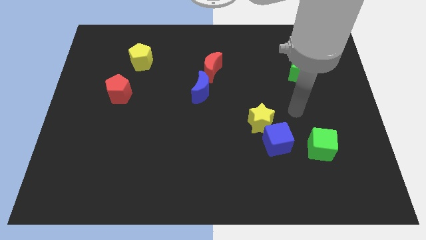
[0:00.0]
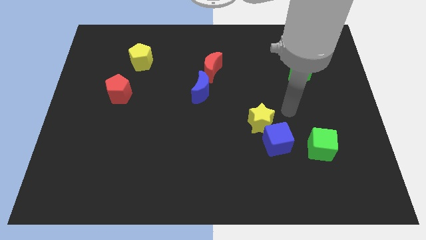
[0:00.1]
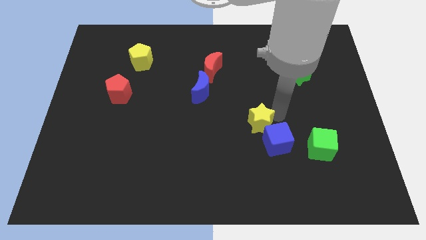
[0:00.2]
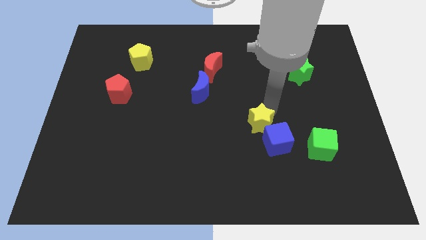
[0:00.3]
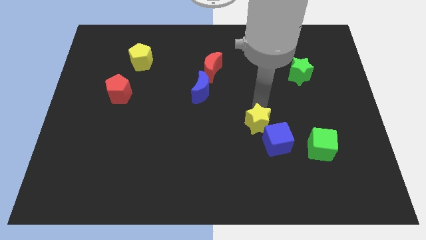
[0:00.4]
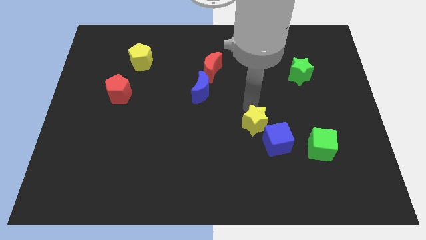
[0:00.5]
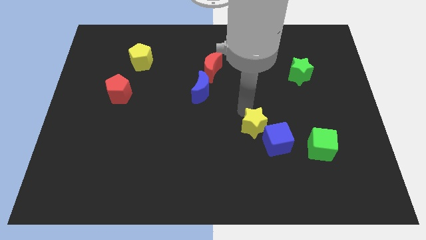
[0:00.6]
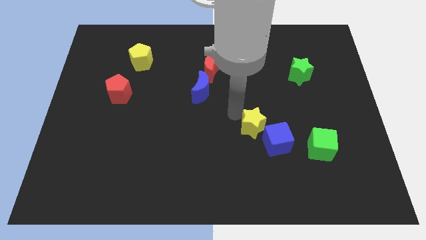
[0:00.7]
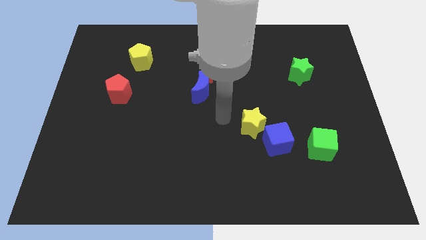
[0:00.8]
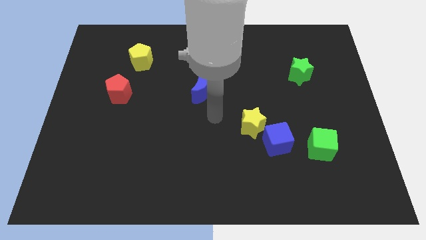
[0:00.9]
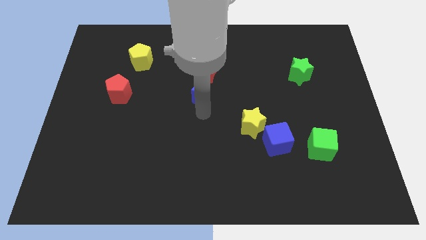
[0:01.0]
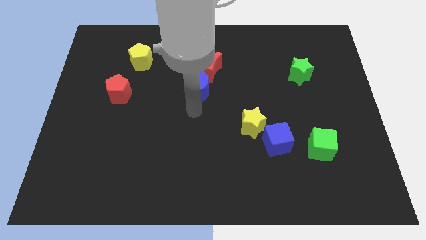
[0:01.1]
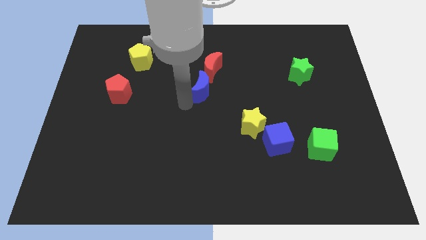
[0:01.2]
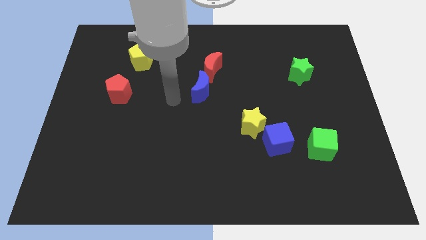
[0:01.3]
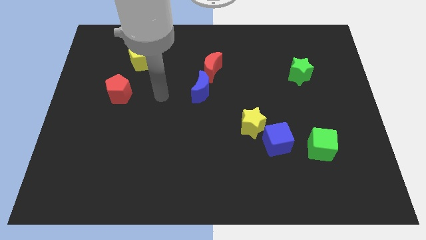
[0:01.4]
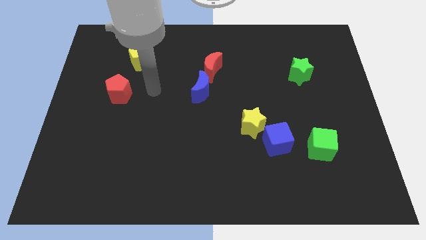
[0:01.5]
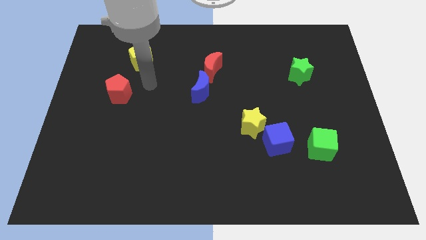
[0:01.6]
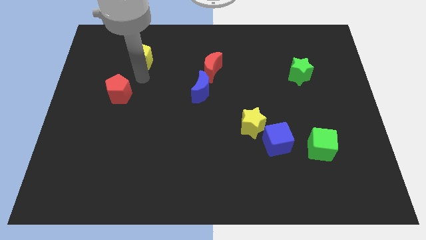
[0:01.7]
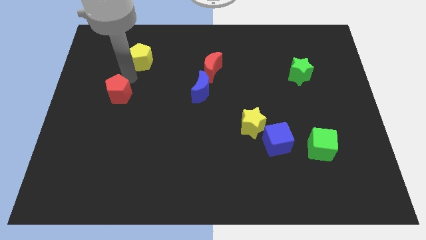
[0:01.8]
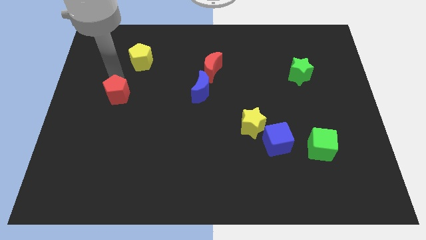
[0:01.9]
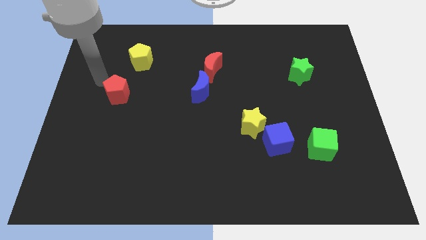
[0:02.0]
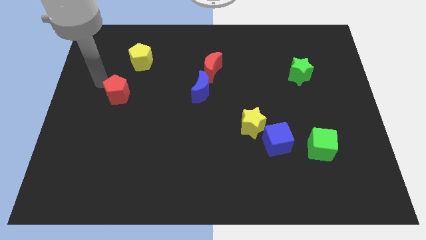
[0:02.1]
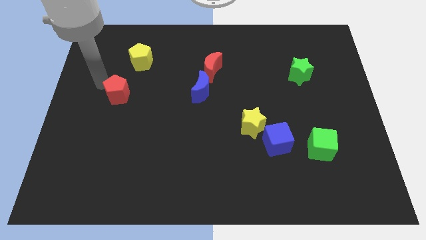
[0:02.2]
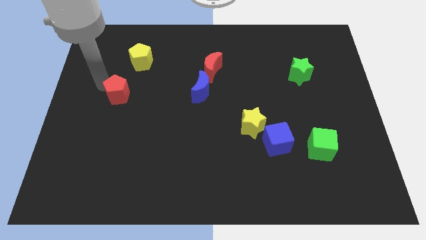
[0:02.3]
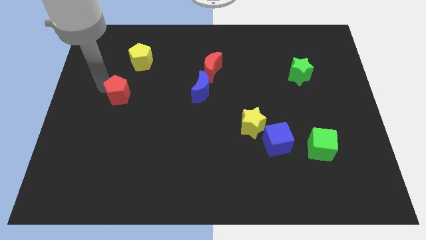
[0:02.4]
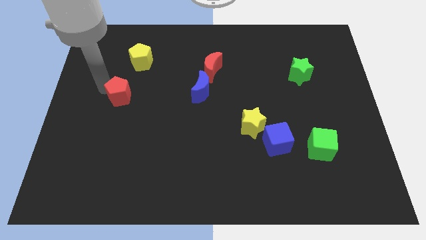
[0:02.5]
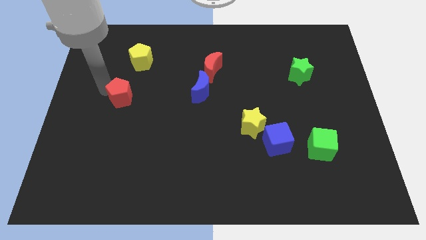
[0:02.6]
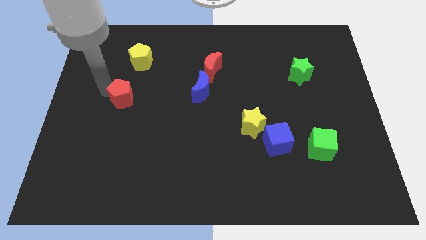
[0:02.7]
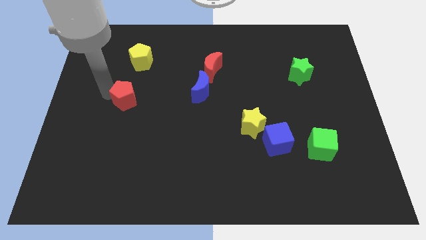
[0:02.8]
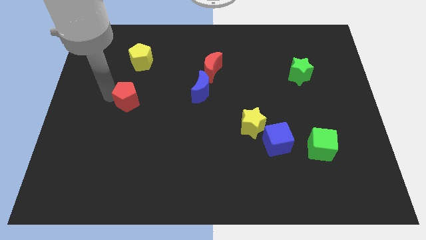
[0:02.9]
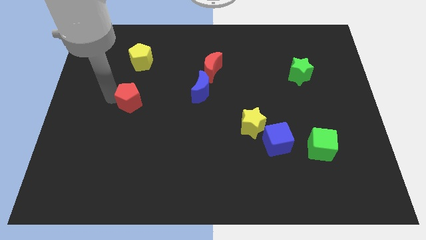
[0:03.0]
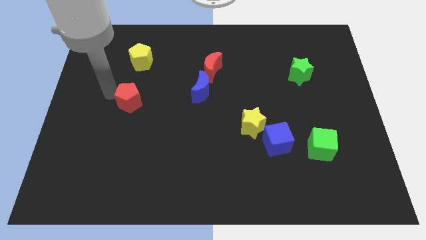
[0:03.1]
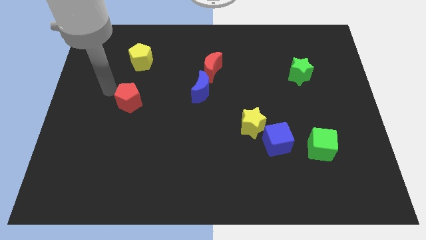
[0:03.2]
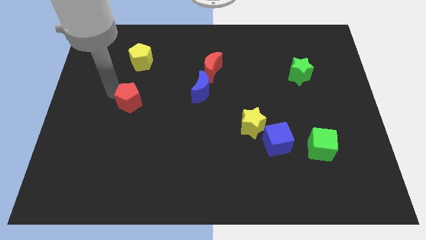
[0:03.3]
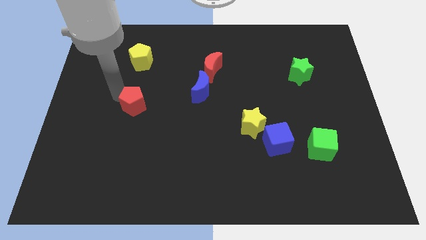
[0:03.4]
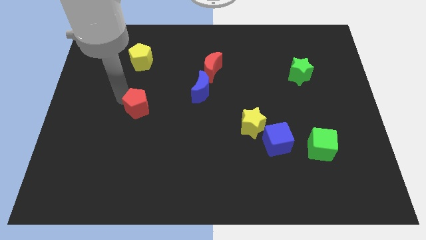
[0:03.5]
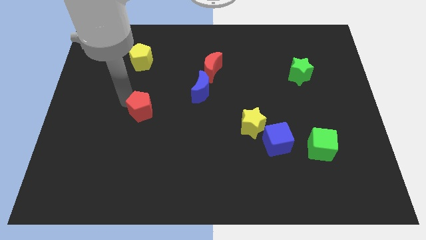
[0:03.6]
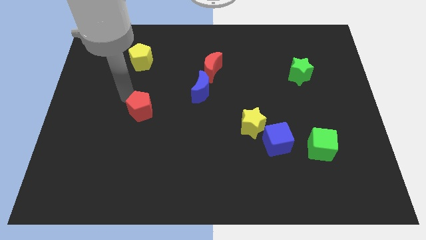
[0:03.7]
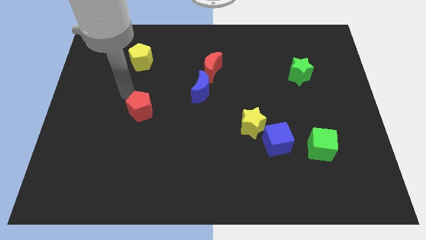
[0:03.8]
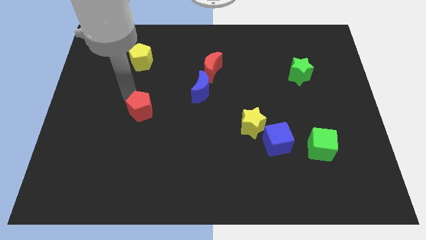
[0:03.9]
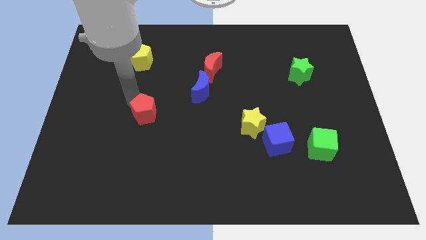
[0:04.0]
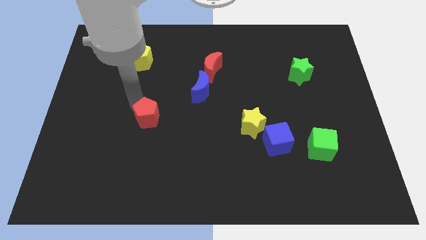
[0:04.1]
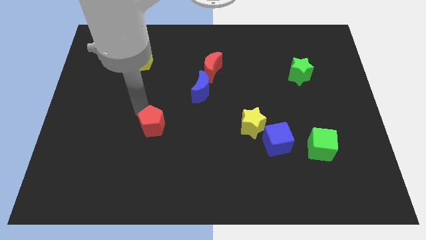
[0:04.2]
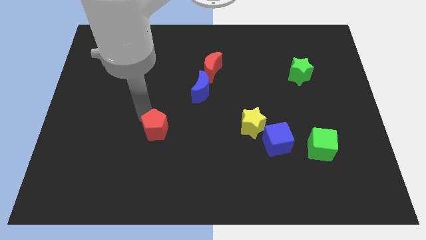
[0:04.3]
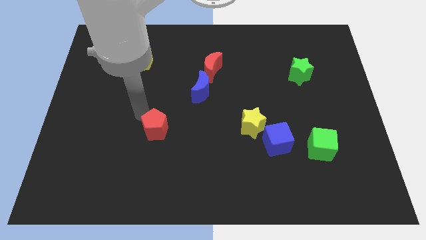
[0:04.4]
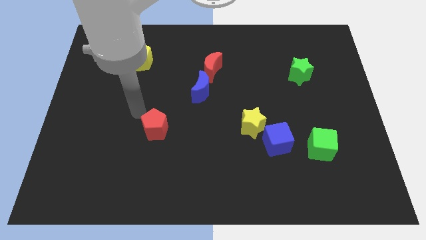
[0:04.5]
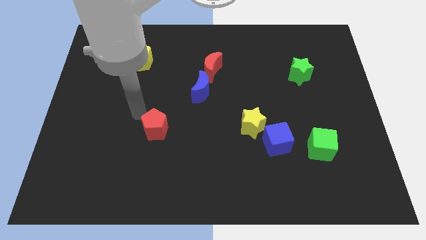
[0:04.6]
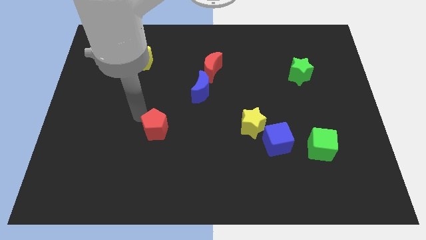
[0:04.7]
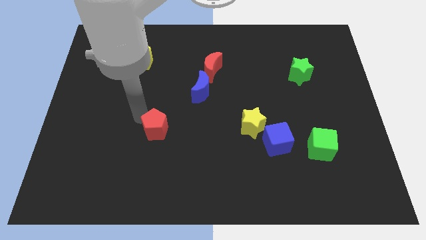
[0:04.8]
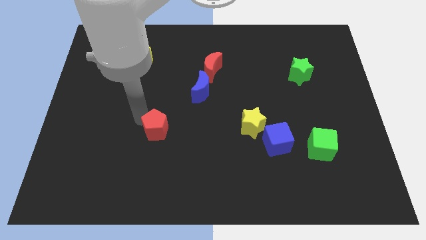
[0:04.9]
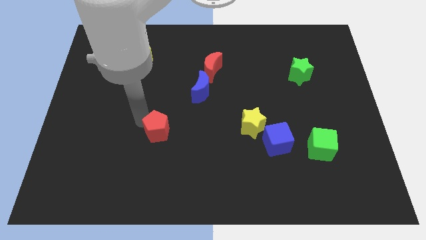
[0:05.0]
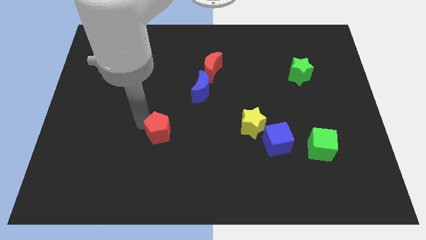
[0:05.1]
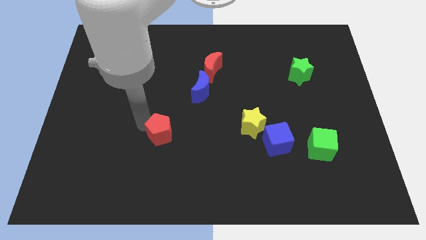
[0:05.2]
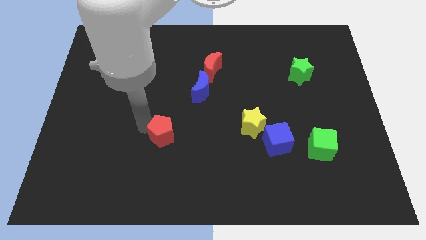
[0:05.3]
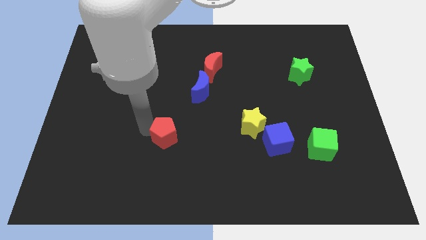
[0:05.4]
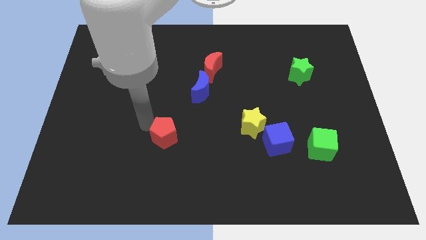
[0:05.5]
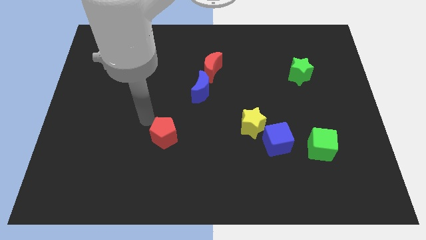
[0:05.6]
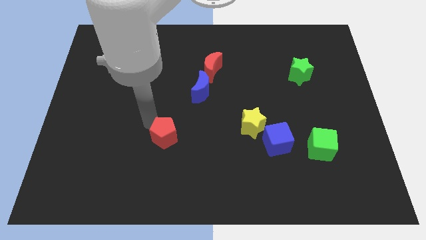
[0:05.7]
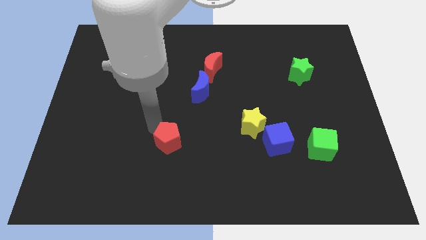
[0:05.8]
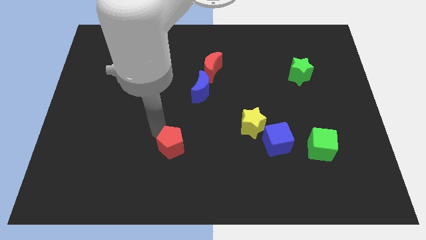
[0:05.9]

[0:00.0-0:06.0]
push the red pentagon diagonally down and to the right

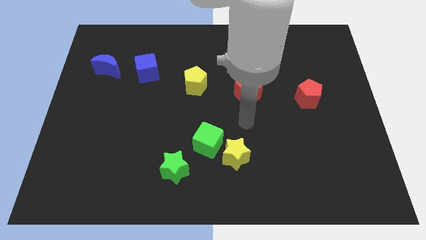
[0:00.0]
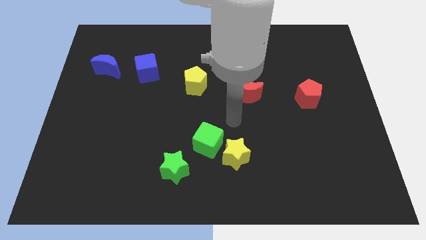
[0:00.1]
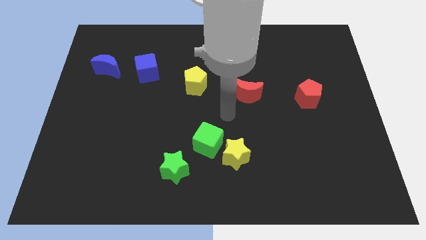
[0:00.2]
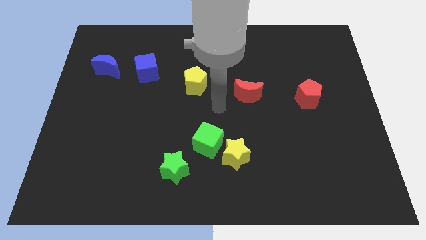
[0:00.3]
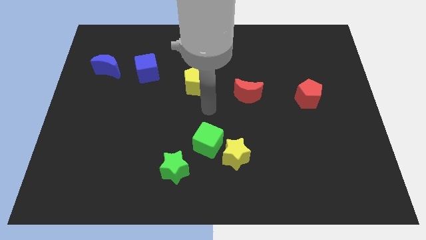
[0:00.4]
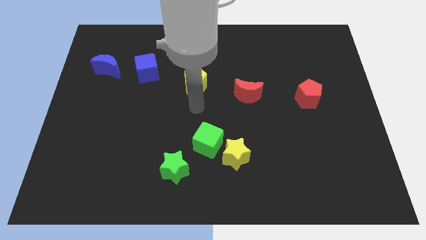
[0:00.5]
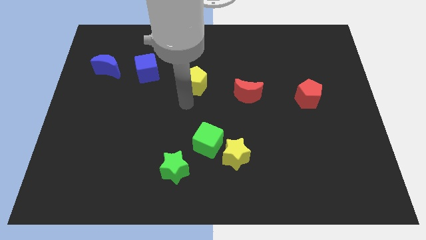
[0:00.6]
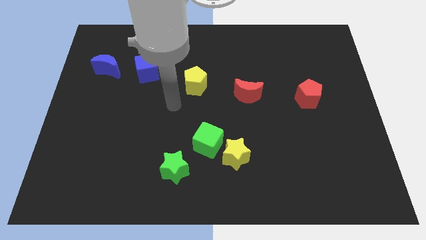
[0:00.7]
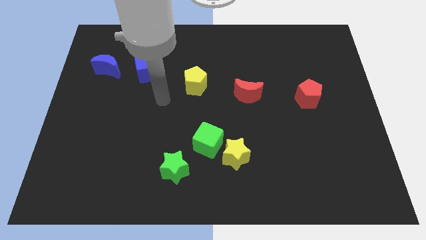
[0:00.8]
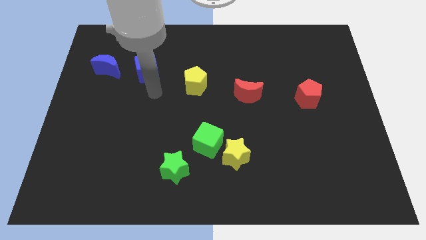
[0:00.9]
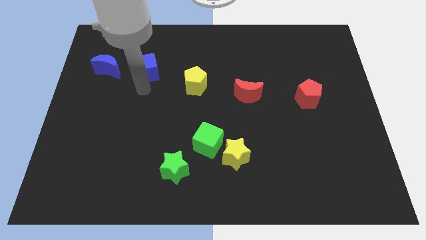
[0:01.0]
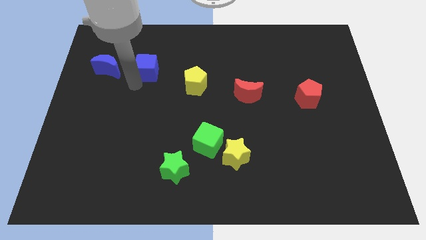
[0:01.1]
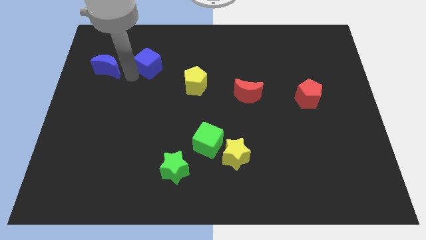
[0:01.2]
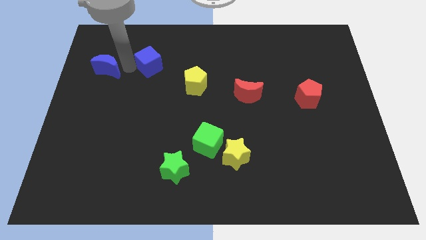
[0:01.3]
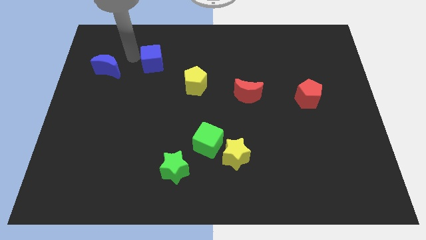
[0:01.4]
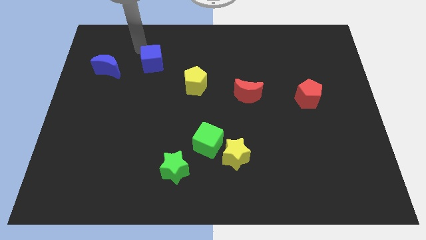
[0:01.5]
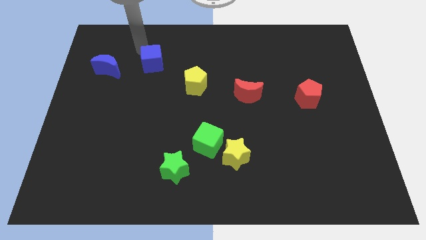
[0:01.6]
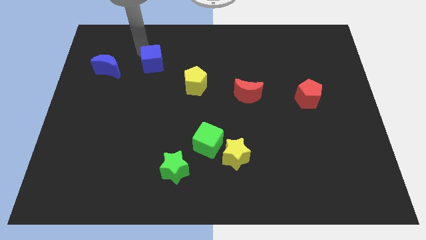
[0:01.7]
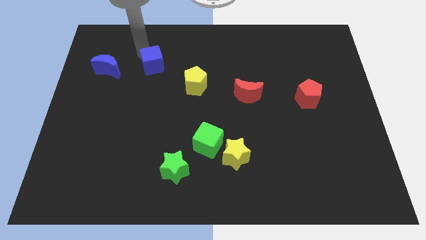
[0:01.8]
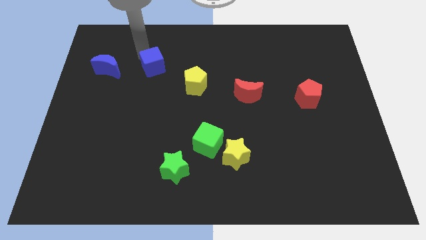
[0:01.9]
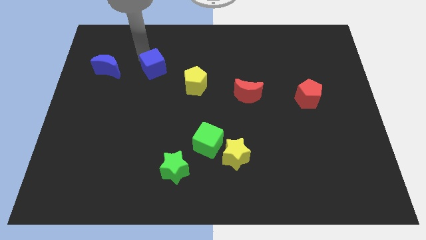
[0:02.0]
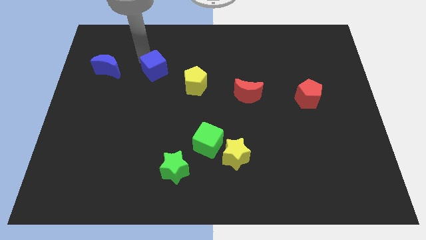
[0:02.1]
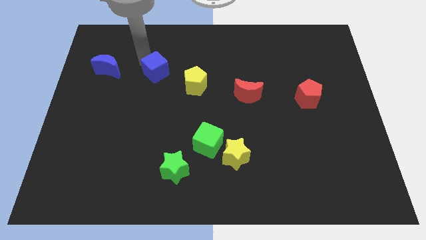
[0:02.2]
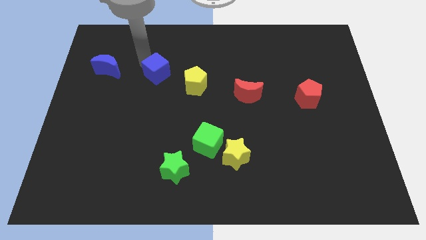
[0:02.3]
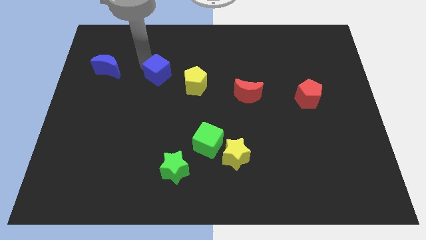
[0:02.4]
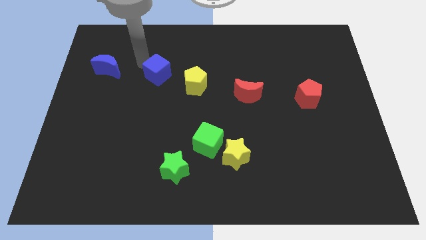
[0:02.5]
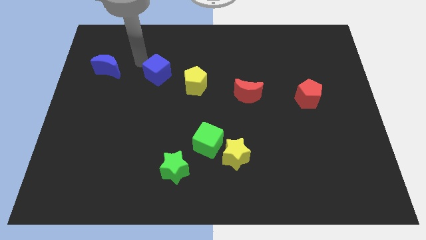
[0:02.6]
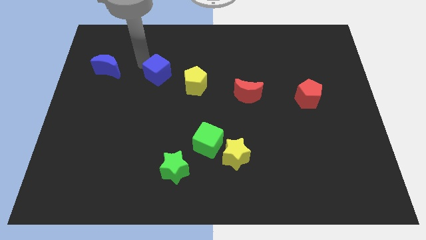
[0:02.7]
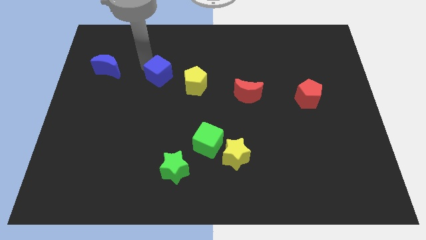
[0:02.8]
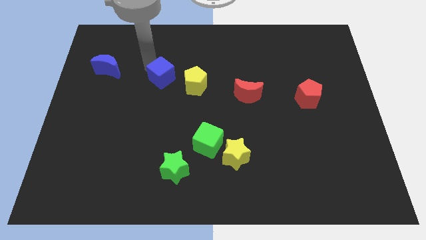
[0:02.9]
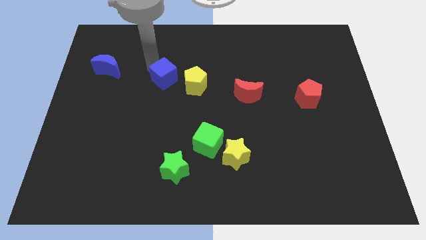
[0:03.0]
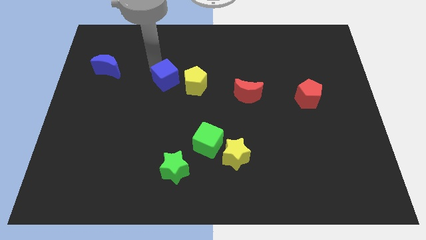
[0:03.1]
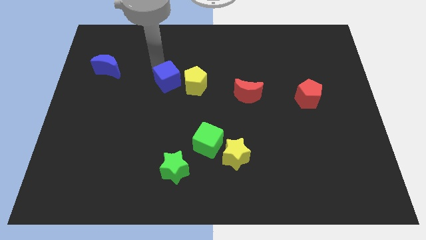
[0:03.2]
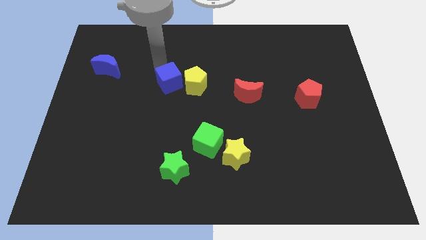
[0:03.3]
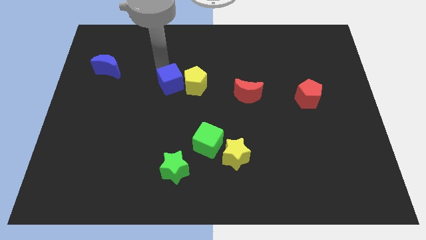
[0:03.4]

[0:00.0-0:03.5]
slightly move the blue cube down and then to the right
